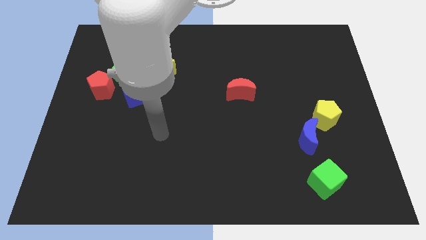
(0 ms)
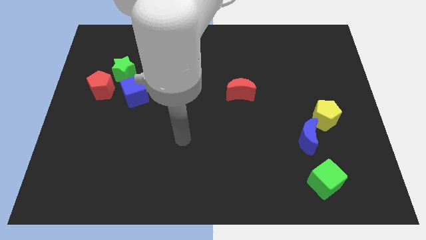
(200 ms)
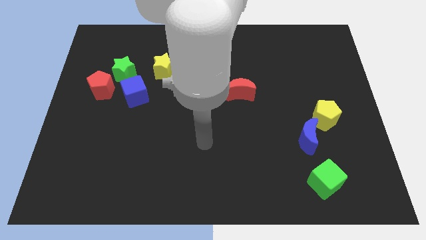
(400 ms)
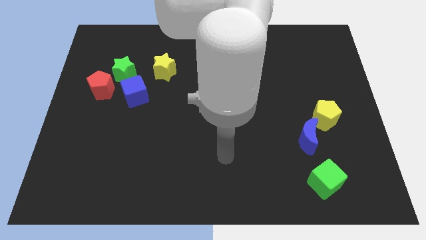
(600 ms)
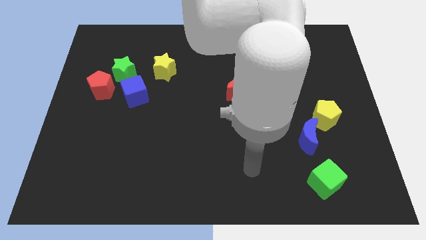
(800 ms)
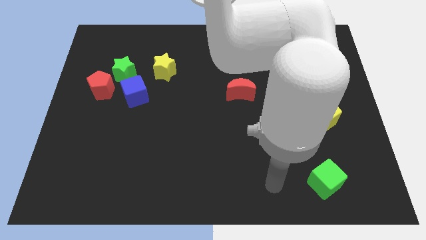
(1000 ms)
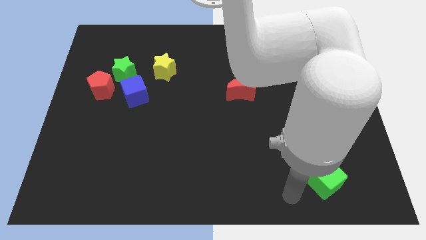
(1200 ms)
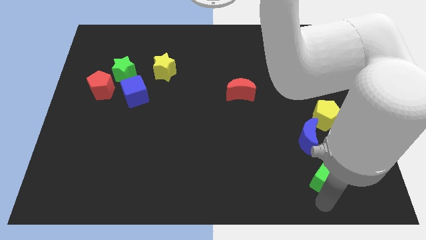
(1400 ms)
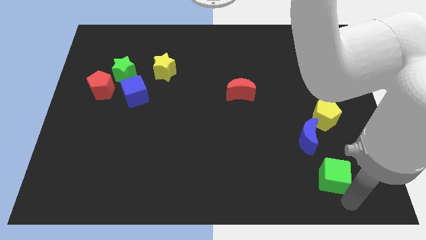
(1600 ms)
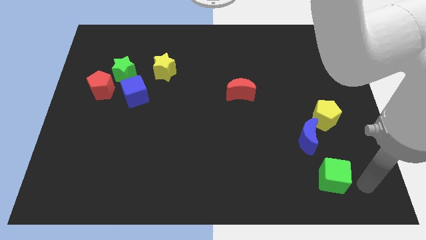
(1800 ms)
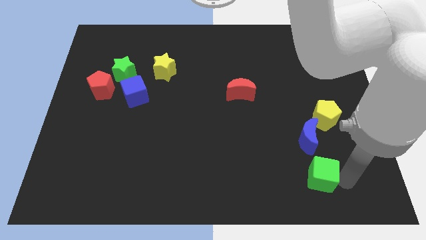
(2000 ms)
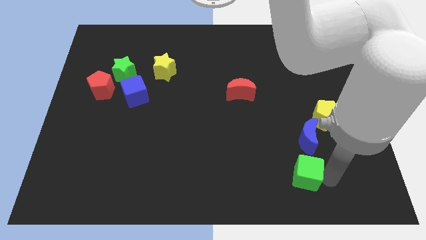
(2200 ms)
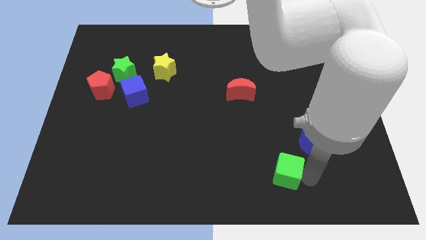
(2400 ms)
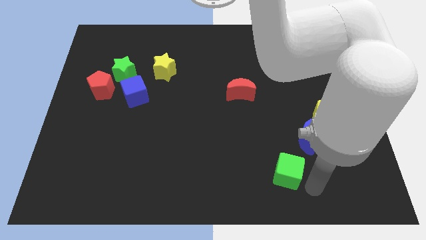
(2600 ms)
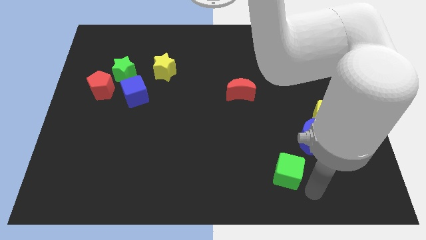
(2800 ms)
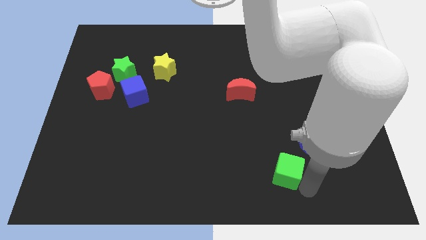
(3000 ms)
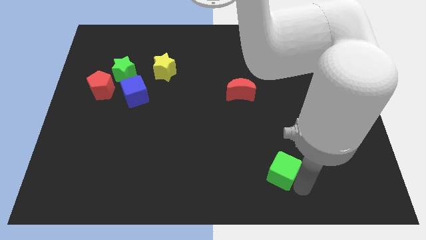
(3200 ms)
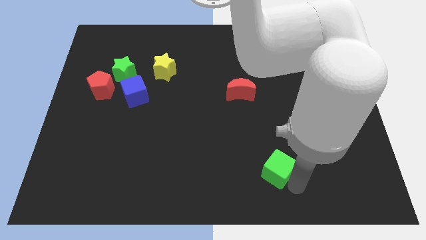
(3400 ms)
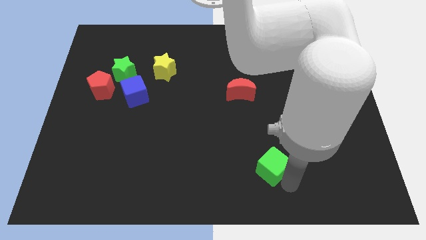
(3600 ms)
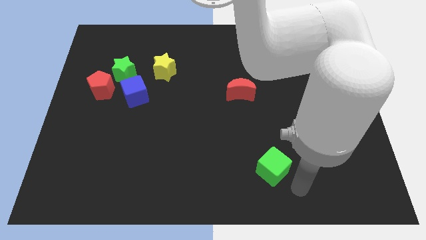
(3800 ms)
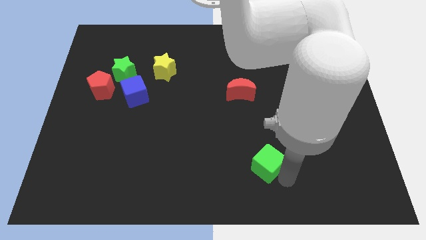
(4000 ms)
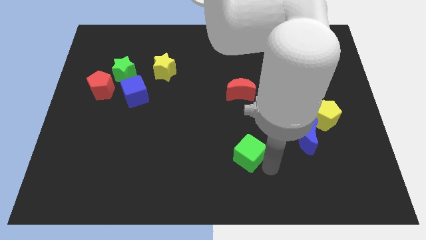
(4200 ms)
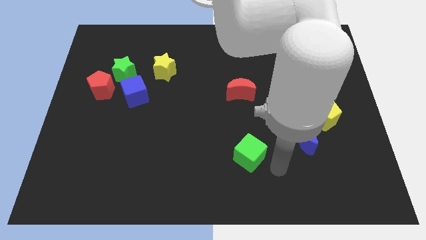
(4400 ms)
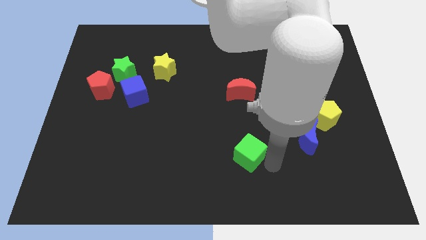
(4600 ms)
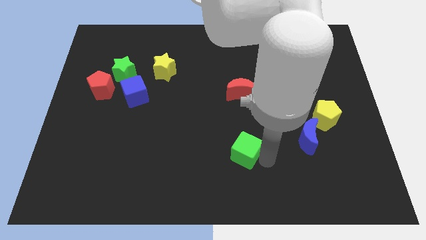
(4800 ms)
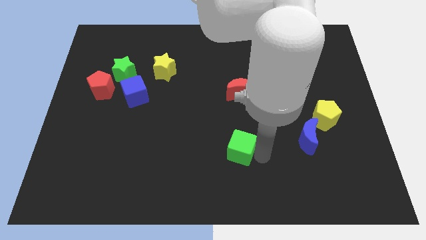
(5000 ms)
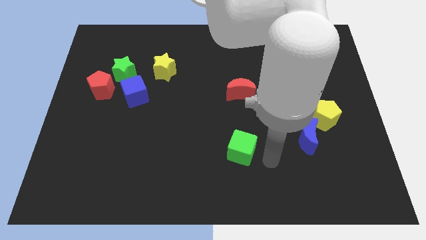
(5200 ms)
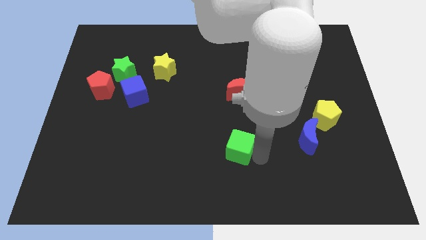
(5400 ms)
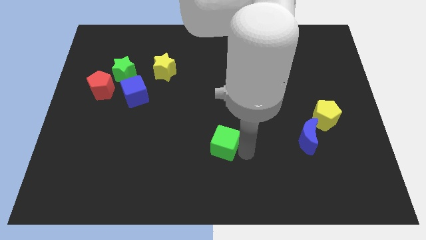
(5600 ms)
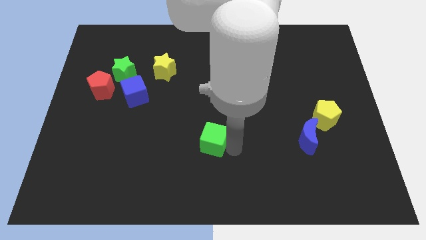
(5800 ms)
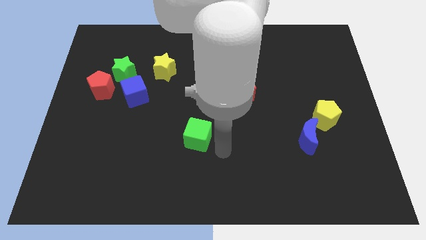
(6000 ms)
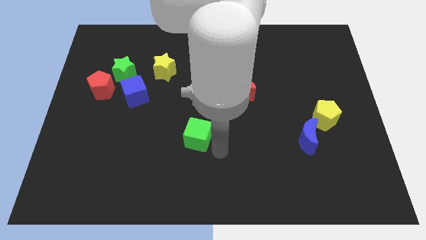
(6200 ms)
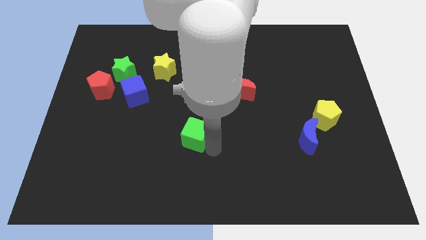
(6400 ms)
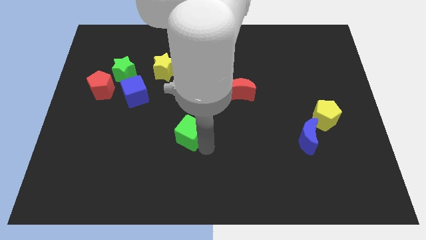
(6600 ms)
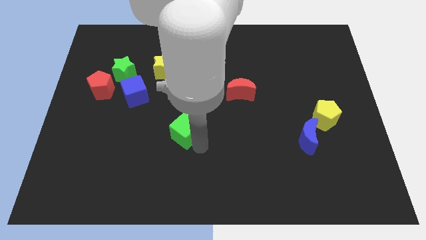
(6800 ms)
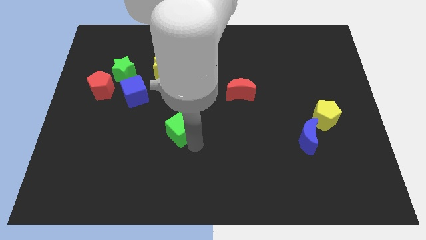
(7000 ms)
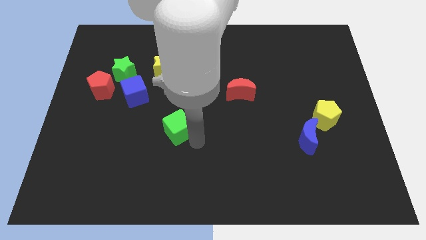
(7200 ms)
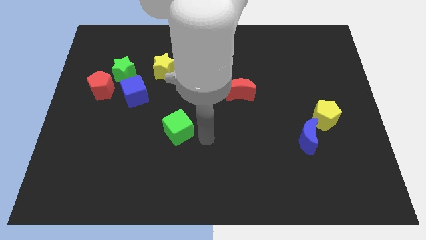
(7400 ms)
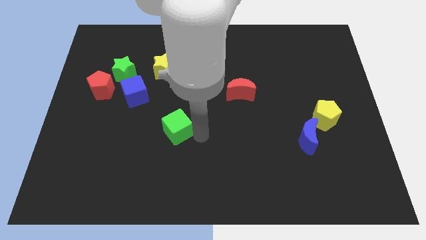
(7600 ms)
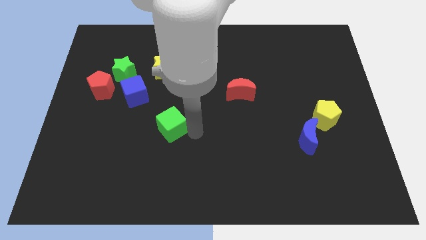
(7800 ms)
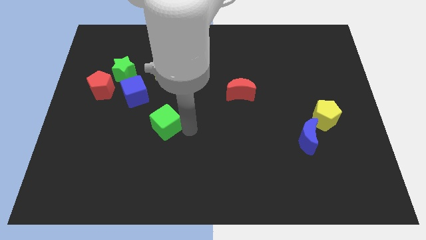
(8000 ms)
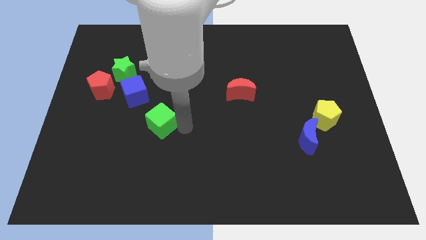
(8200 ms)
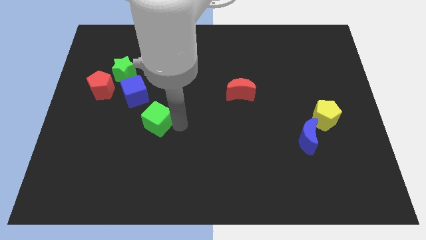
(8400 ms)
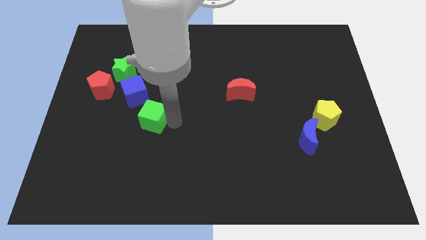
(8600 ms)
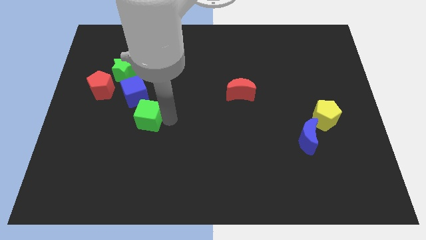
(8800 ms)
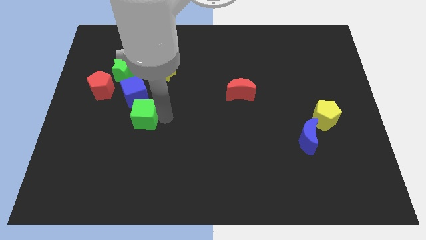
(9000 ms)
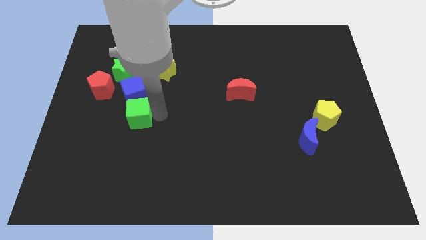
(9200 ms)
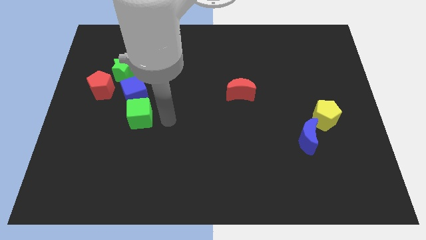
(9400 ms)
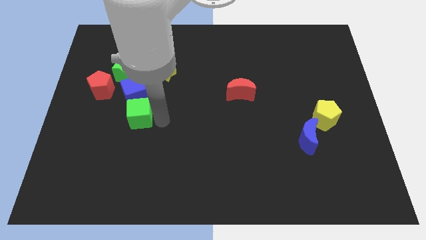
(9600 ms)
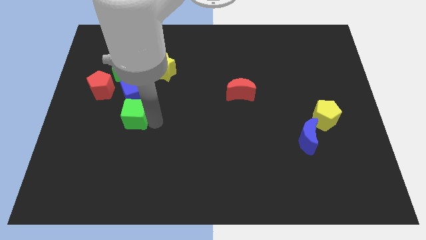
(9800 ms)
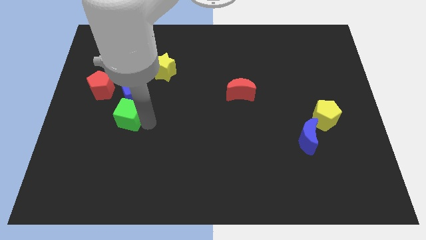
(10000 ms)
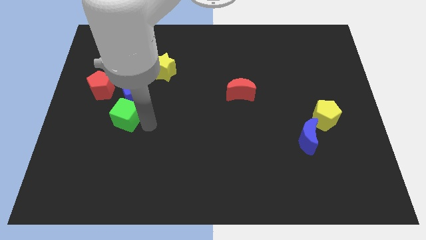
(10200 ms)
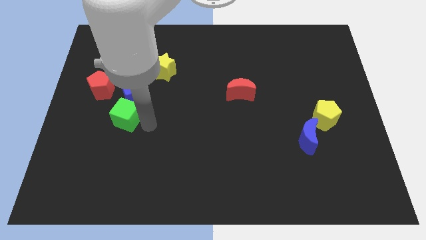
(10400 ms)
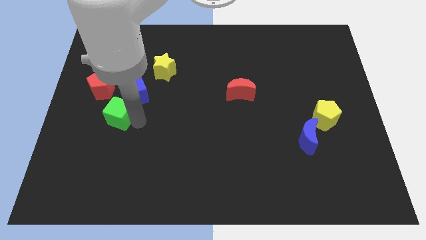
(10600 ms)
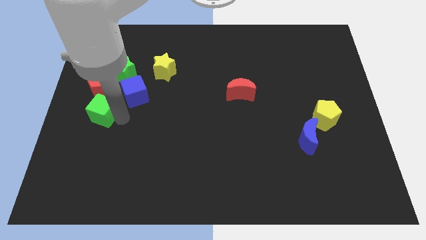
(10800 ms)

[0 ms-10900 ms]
move the green cube to the left side

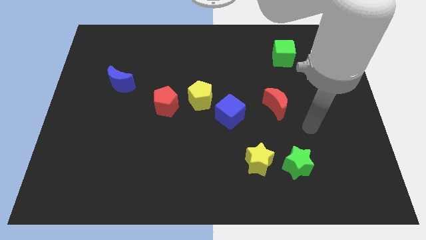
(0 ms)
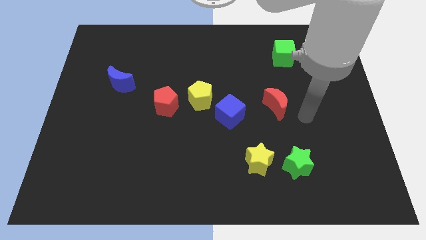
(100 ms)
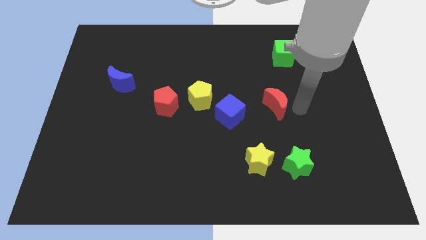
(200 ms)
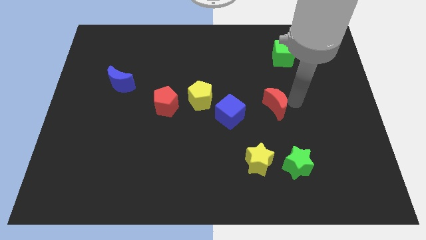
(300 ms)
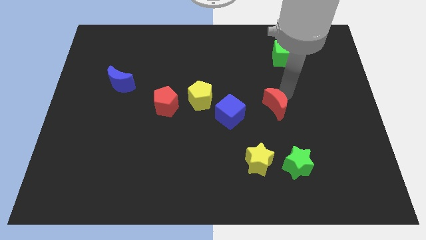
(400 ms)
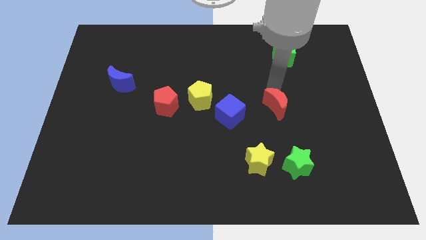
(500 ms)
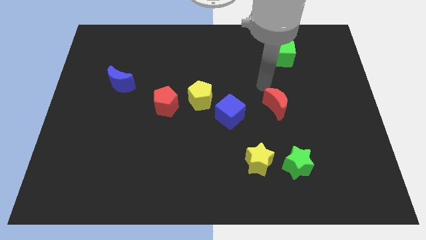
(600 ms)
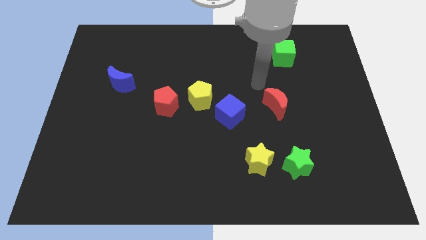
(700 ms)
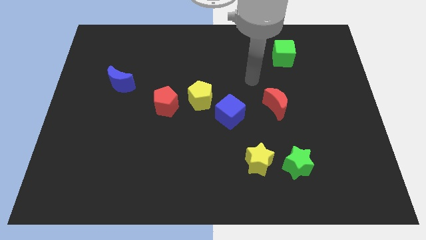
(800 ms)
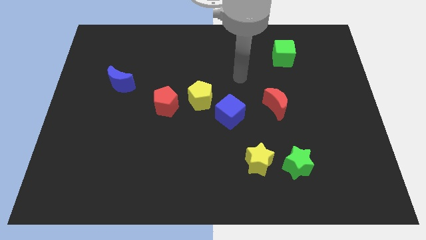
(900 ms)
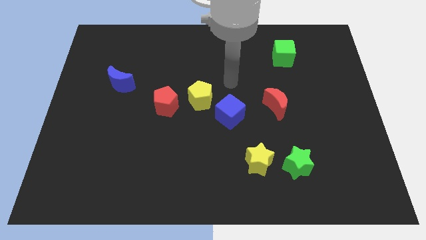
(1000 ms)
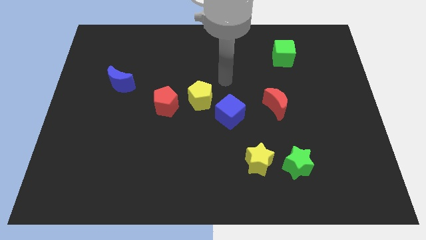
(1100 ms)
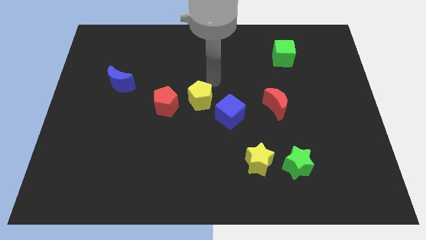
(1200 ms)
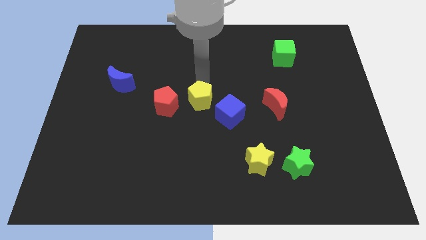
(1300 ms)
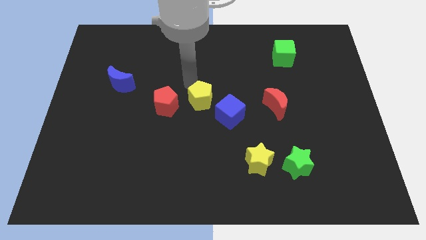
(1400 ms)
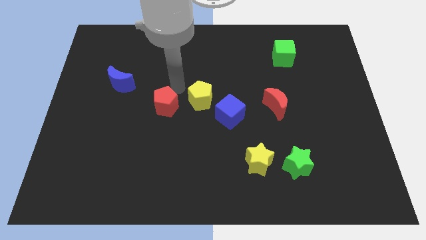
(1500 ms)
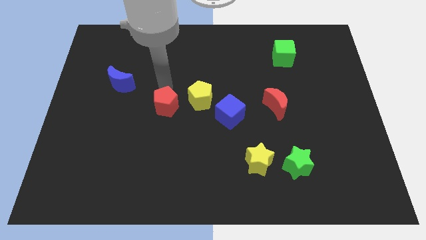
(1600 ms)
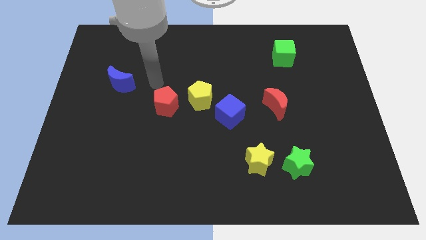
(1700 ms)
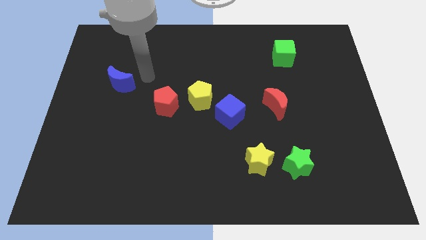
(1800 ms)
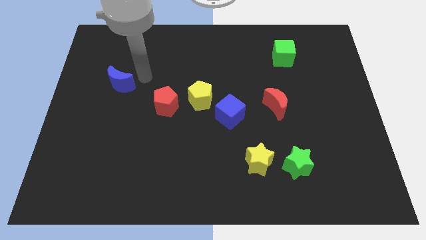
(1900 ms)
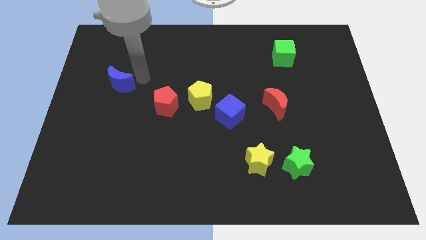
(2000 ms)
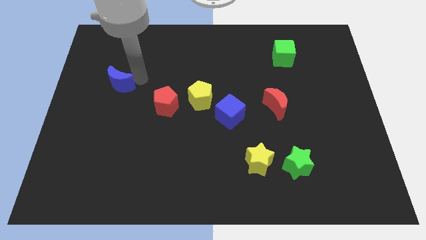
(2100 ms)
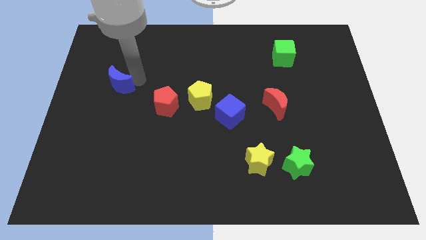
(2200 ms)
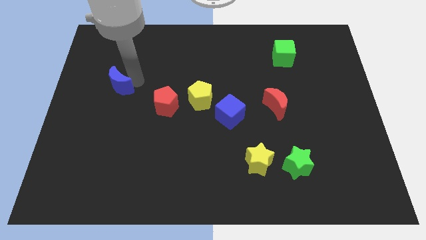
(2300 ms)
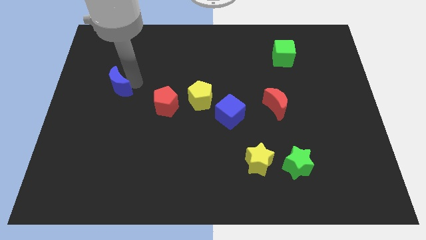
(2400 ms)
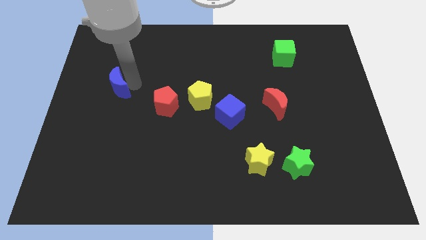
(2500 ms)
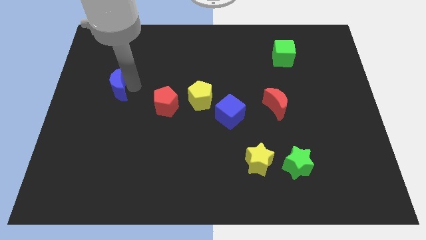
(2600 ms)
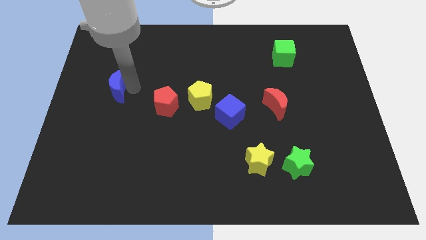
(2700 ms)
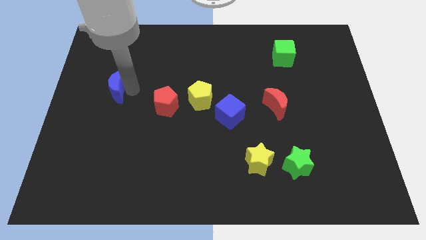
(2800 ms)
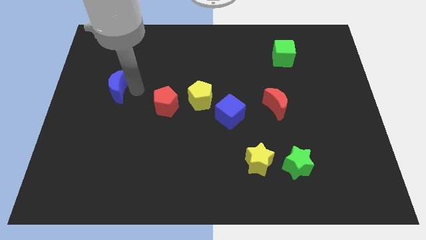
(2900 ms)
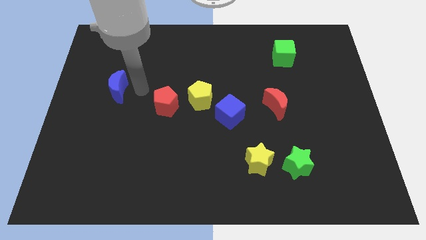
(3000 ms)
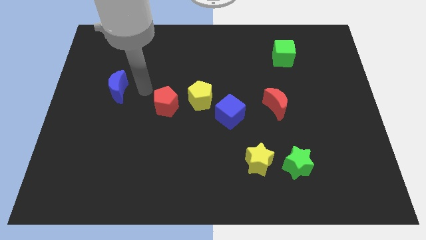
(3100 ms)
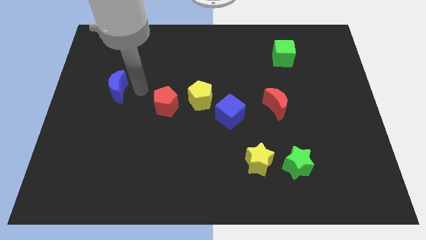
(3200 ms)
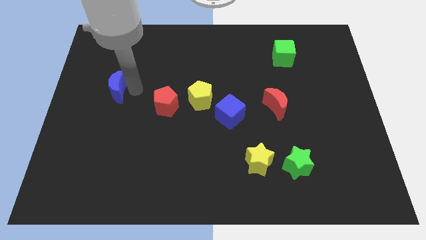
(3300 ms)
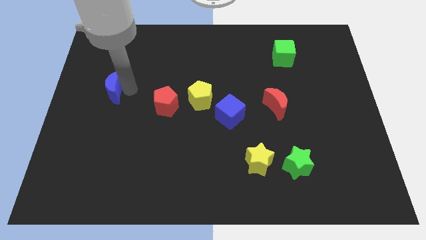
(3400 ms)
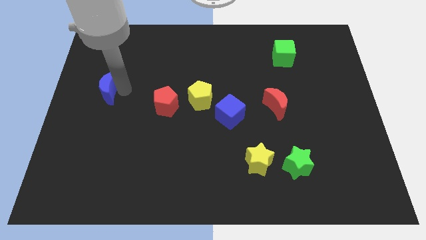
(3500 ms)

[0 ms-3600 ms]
push the blue moon to the center left
